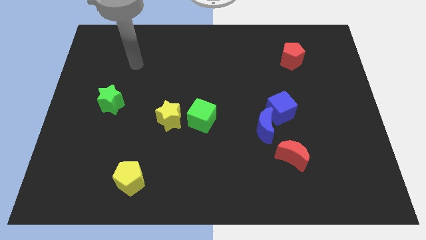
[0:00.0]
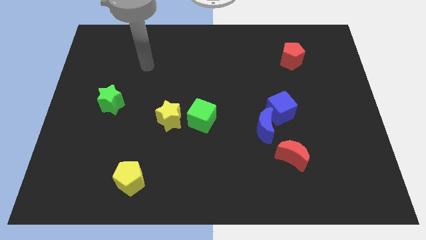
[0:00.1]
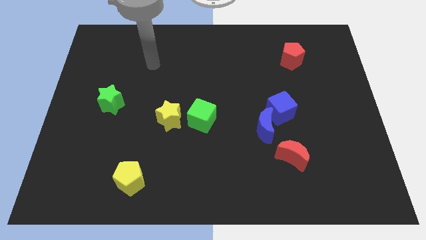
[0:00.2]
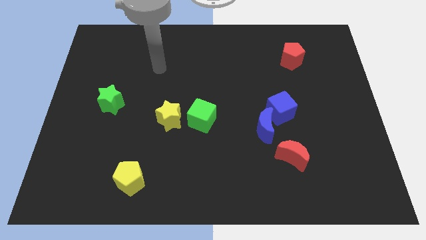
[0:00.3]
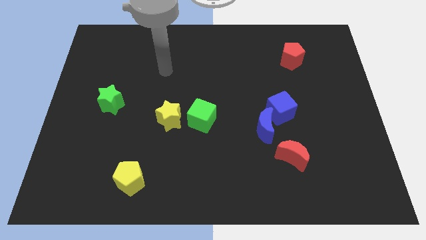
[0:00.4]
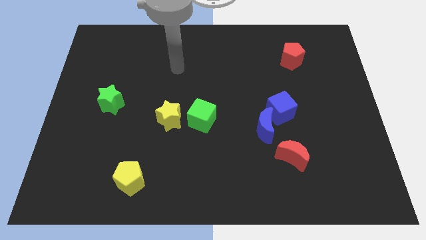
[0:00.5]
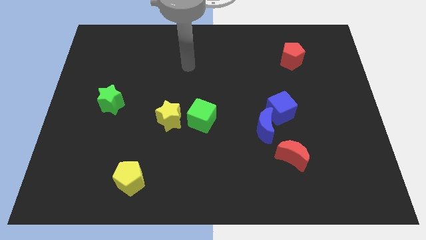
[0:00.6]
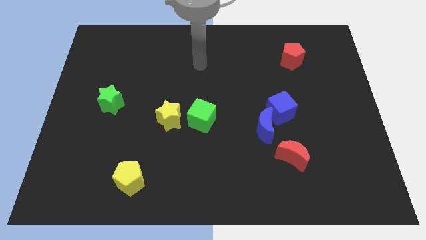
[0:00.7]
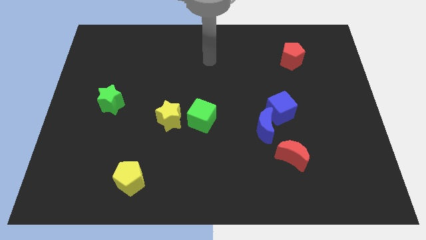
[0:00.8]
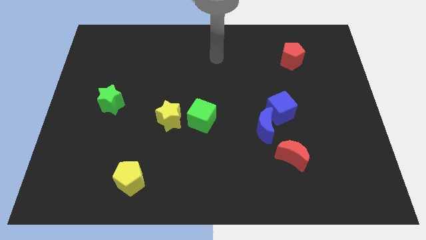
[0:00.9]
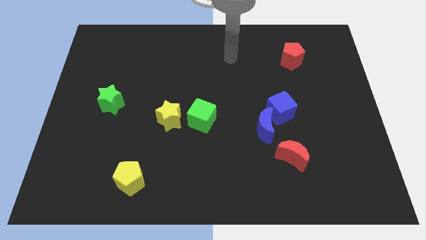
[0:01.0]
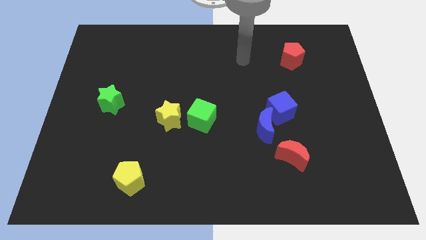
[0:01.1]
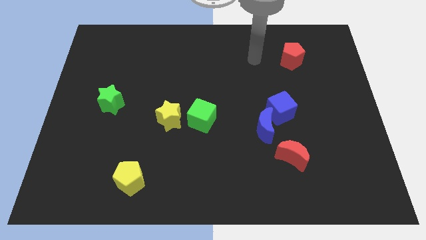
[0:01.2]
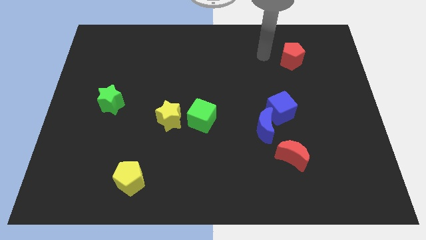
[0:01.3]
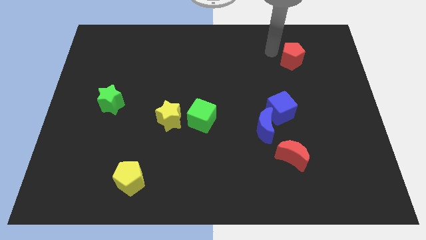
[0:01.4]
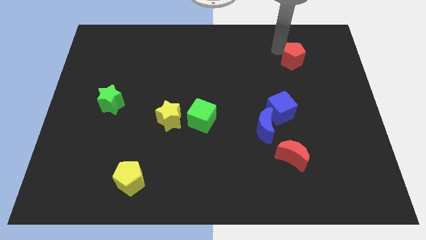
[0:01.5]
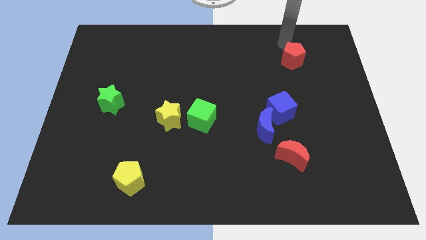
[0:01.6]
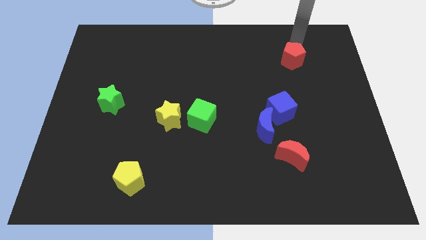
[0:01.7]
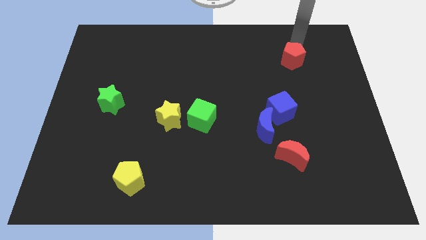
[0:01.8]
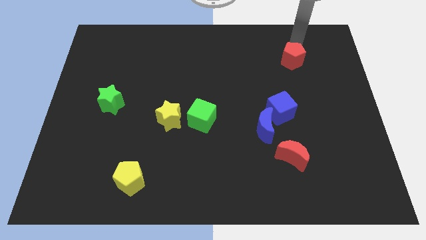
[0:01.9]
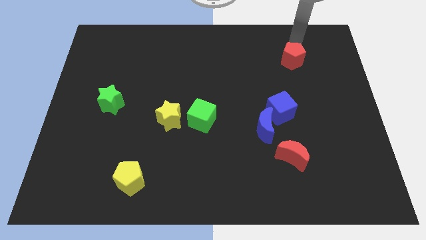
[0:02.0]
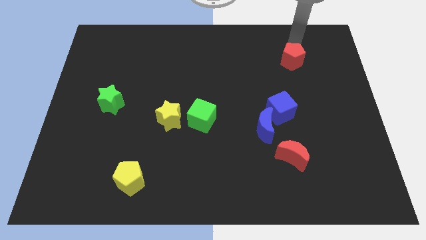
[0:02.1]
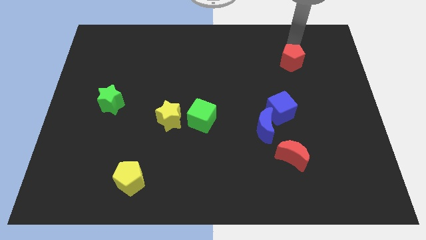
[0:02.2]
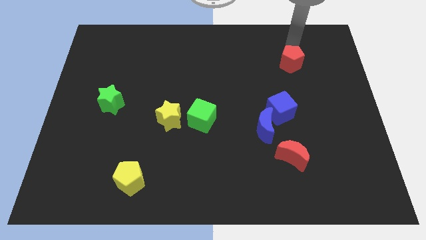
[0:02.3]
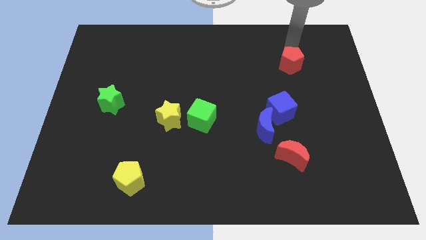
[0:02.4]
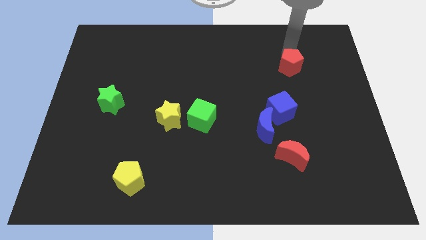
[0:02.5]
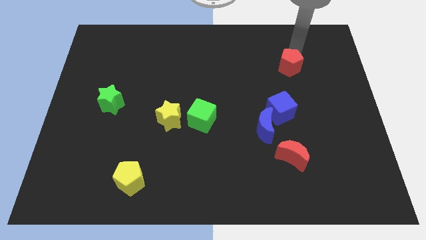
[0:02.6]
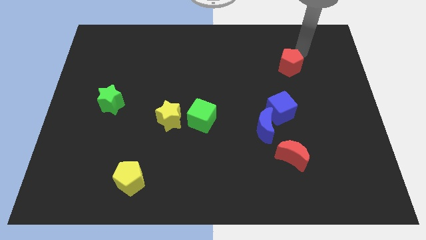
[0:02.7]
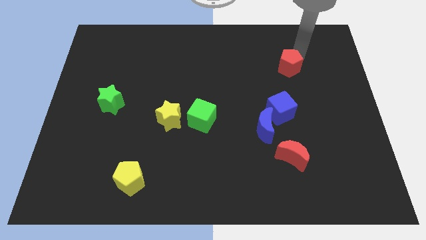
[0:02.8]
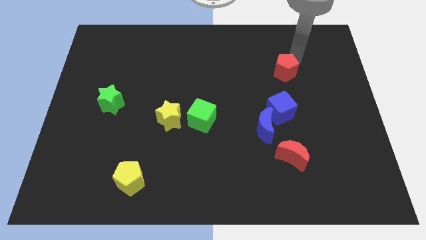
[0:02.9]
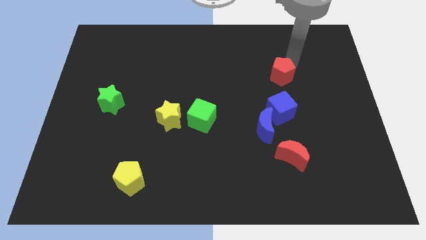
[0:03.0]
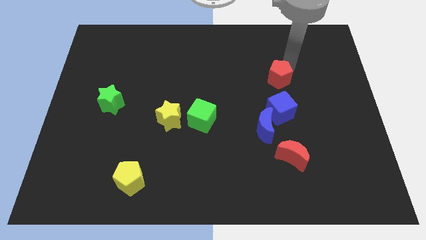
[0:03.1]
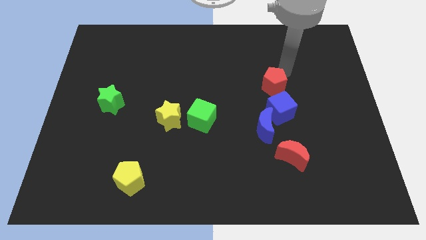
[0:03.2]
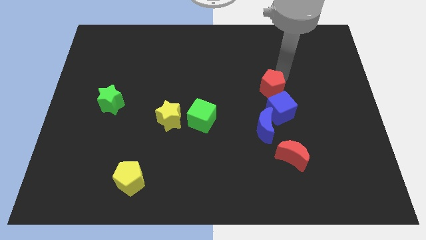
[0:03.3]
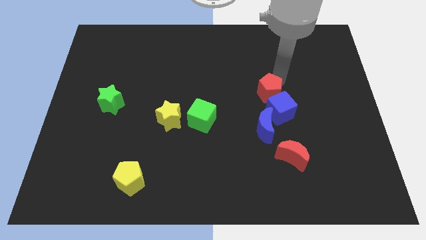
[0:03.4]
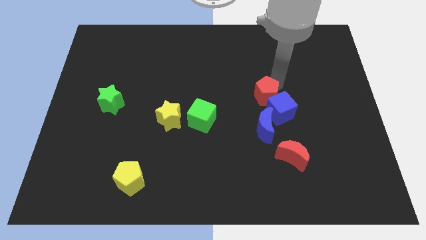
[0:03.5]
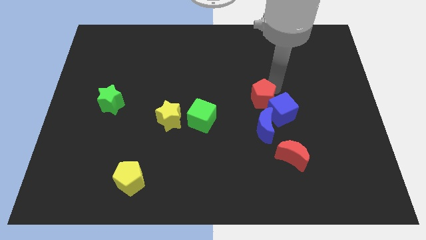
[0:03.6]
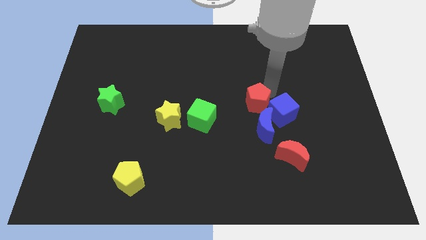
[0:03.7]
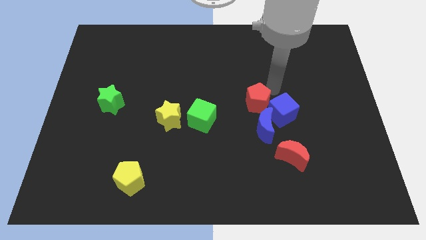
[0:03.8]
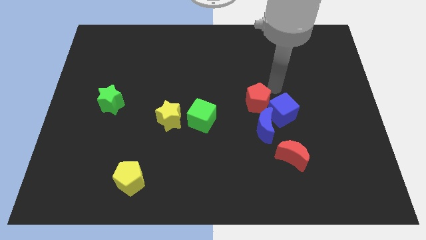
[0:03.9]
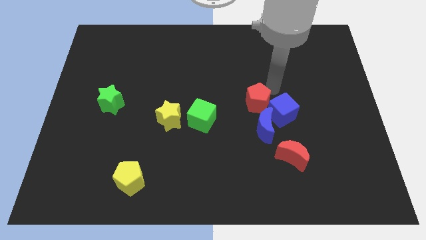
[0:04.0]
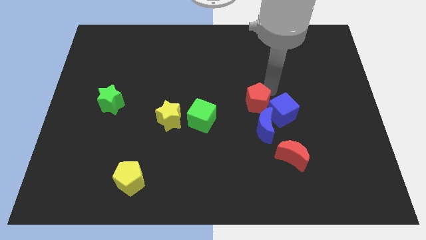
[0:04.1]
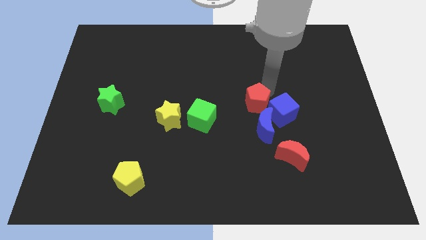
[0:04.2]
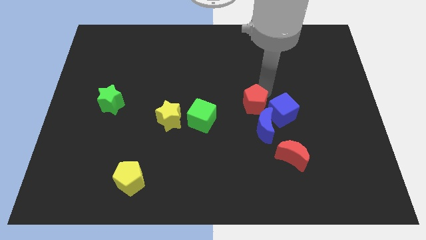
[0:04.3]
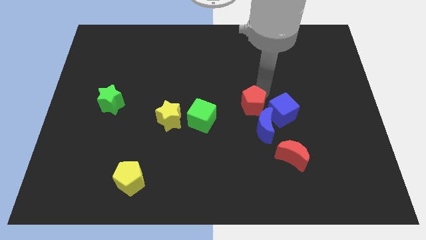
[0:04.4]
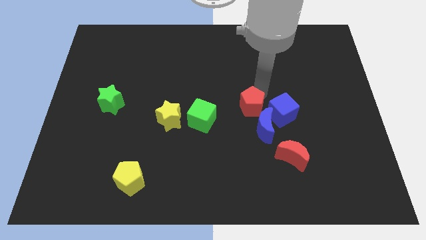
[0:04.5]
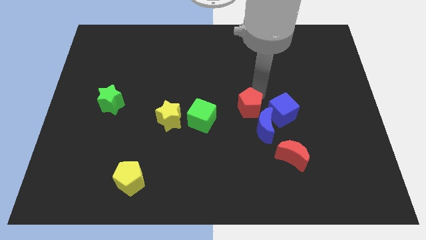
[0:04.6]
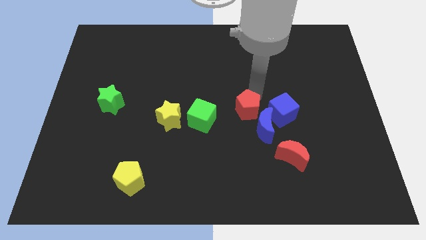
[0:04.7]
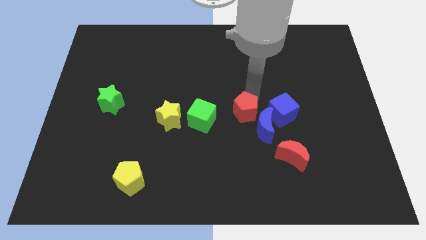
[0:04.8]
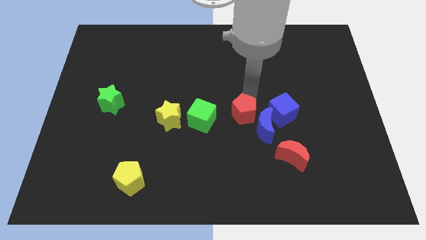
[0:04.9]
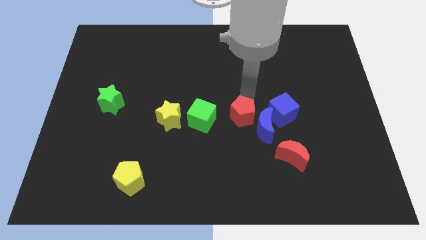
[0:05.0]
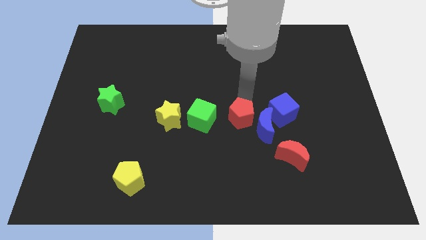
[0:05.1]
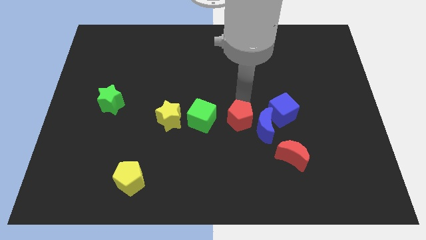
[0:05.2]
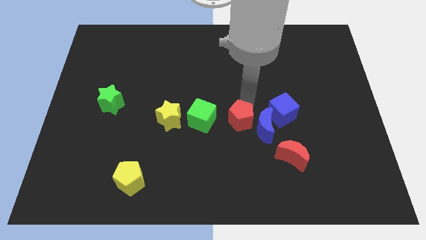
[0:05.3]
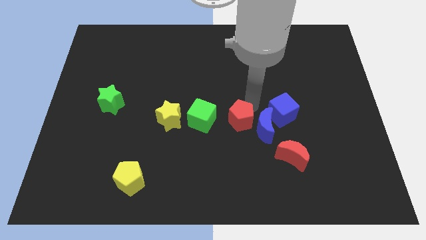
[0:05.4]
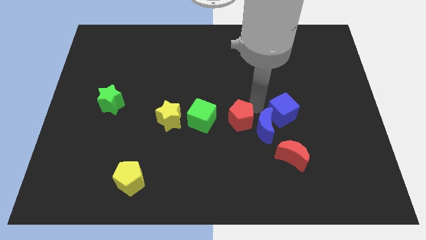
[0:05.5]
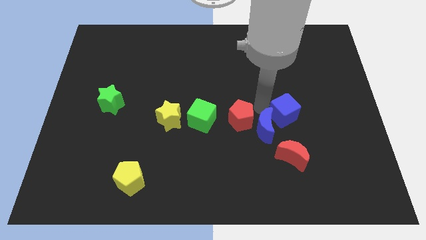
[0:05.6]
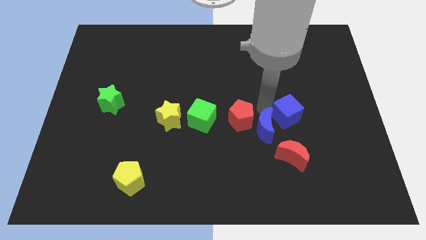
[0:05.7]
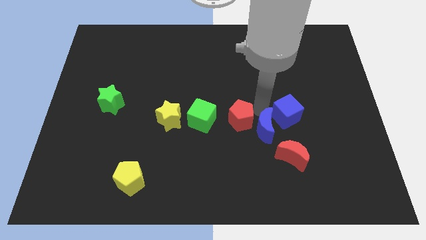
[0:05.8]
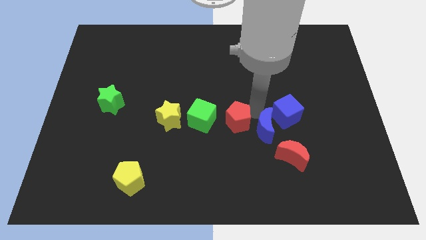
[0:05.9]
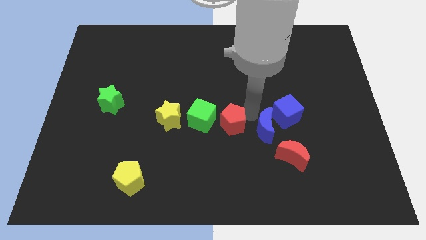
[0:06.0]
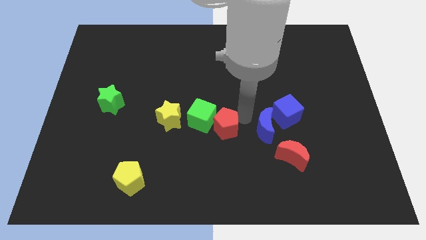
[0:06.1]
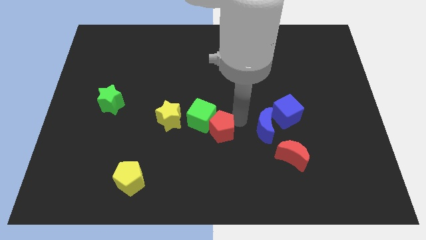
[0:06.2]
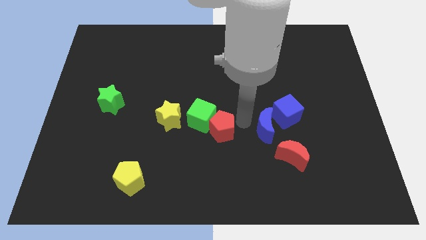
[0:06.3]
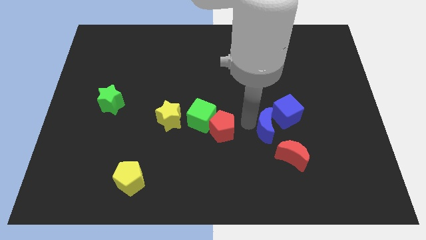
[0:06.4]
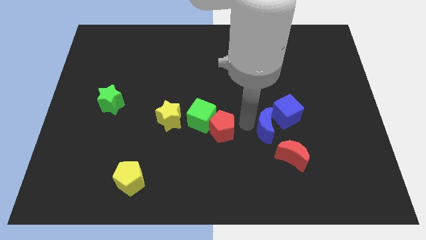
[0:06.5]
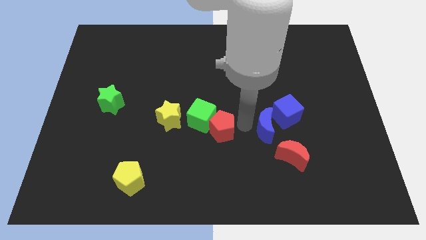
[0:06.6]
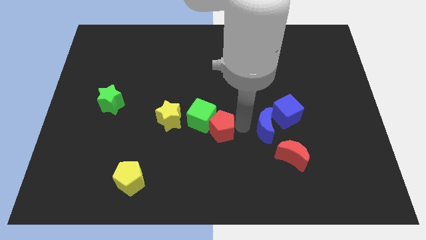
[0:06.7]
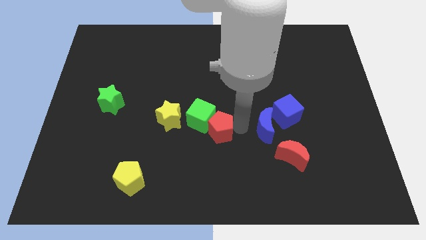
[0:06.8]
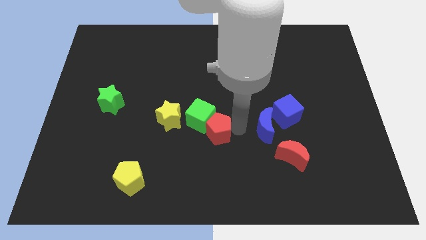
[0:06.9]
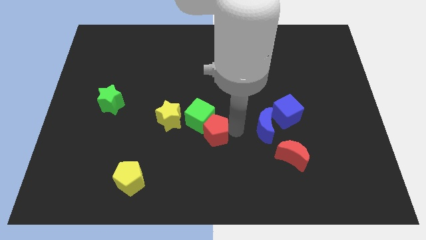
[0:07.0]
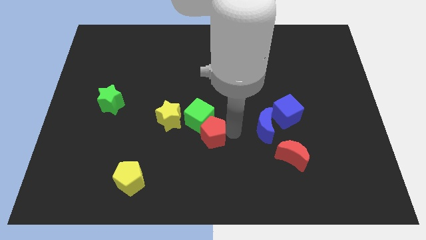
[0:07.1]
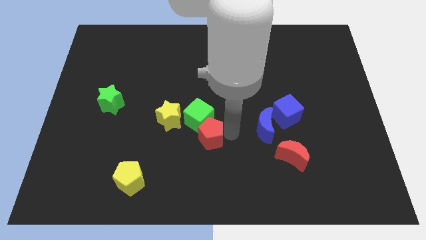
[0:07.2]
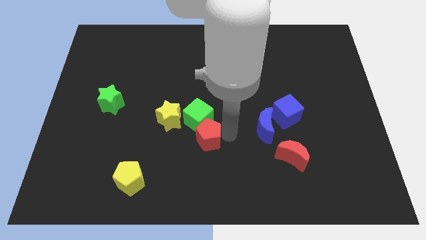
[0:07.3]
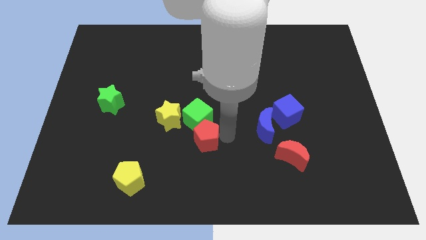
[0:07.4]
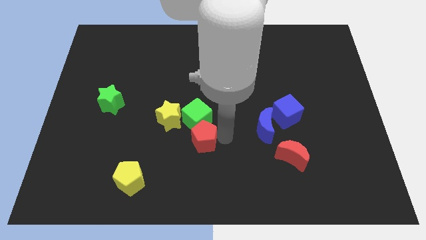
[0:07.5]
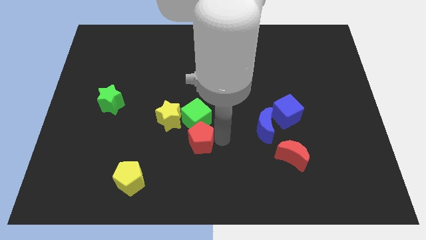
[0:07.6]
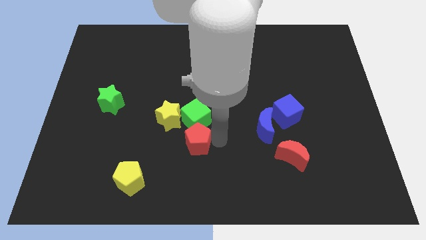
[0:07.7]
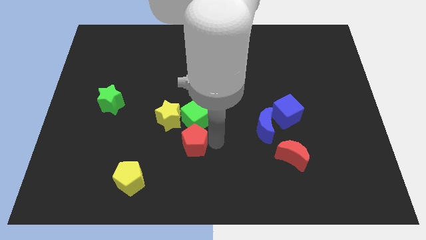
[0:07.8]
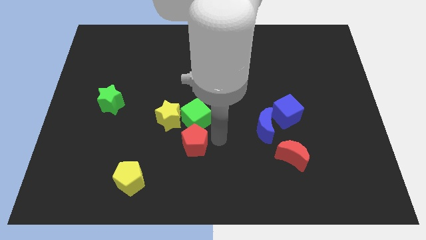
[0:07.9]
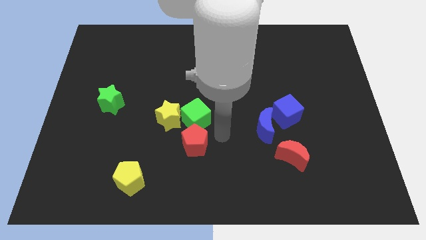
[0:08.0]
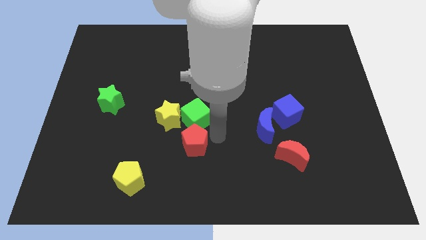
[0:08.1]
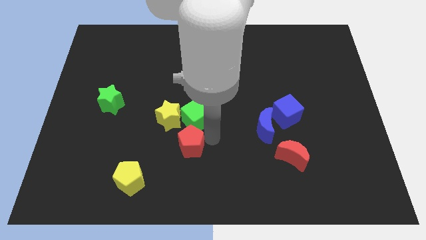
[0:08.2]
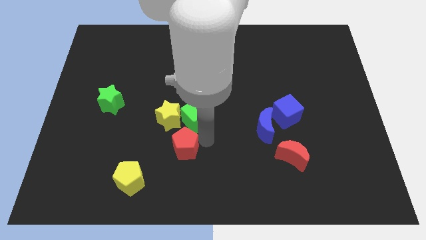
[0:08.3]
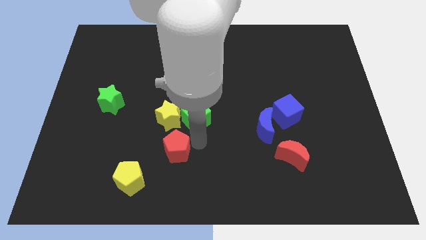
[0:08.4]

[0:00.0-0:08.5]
move the red pentagon to the top right side of the yellow pentagon
